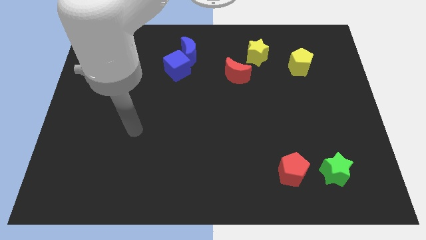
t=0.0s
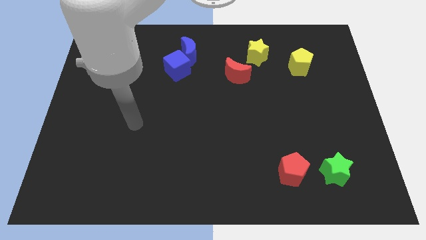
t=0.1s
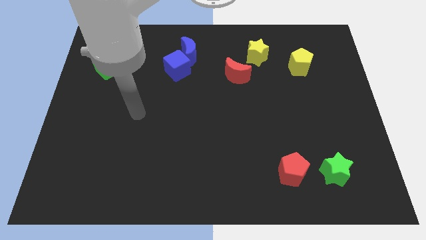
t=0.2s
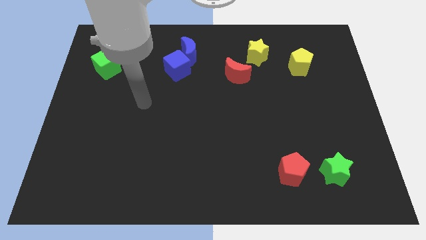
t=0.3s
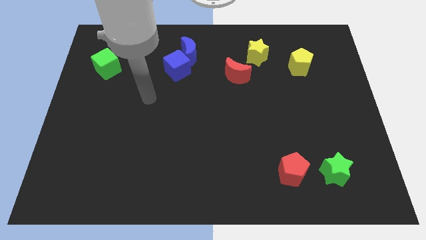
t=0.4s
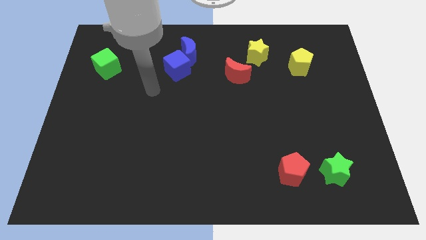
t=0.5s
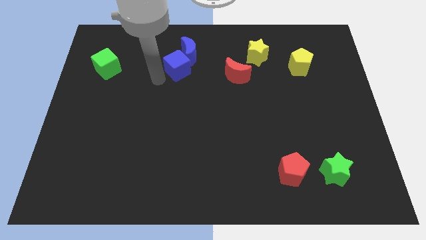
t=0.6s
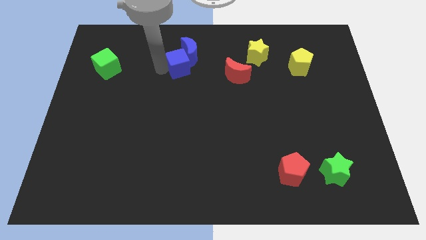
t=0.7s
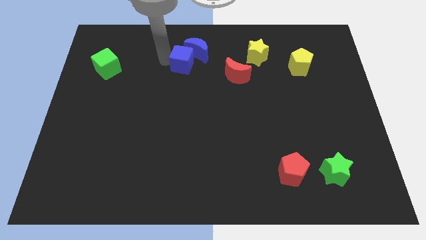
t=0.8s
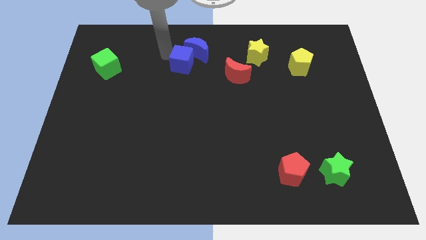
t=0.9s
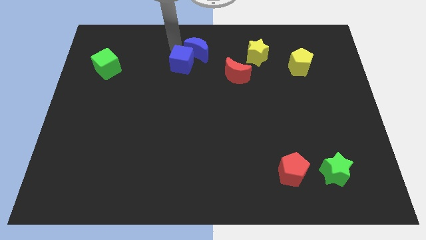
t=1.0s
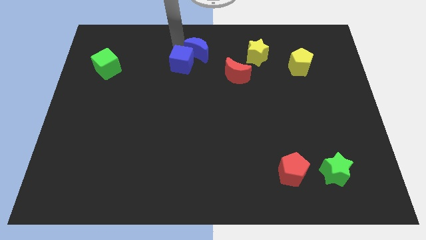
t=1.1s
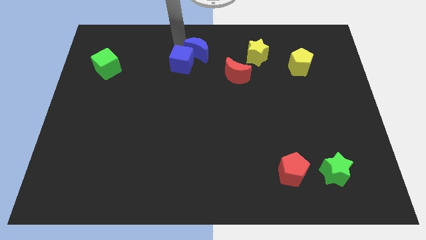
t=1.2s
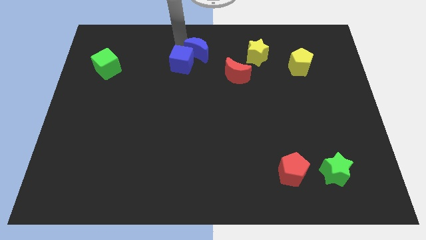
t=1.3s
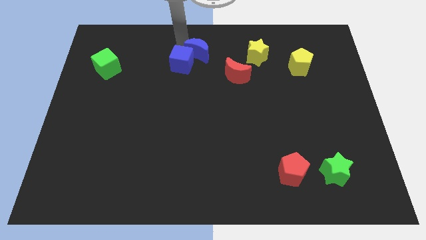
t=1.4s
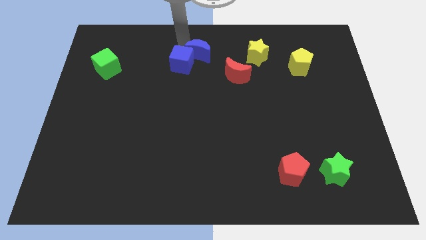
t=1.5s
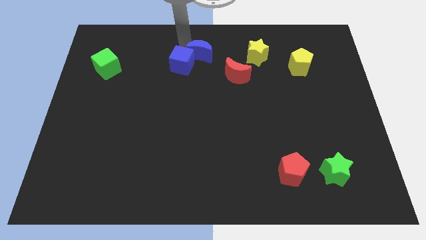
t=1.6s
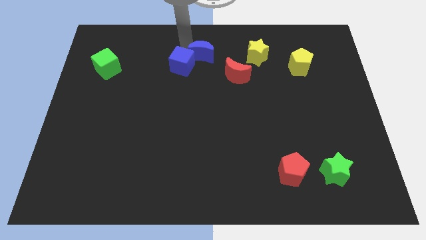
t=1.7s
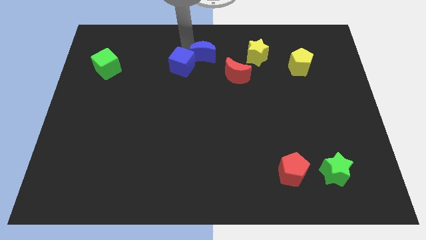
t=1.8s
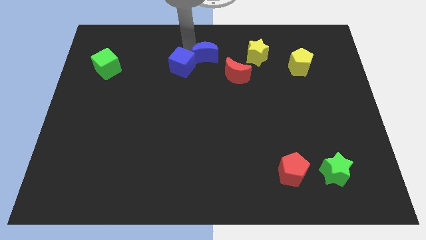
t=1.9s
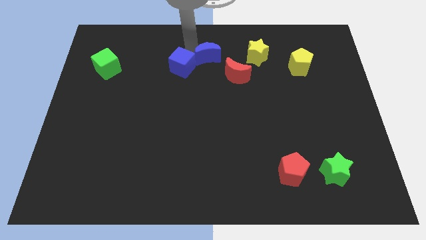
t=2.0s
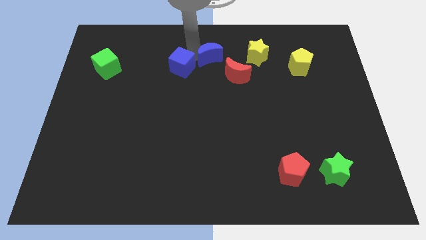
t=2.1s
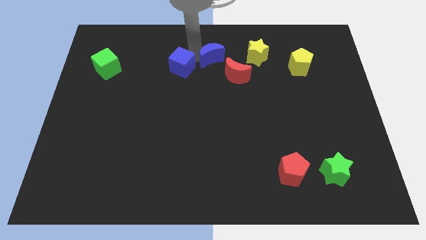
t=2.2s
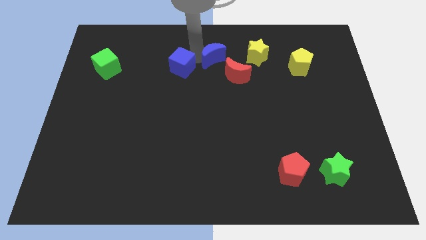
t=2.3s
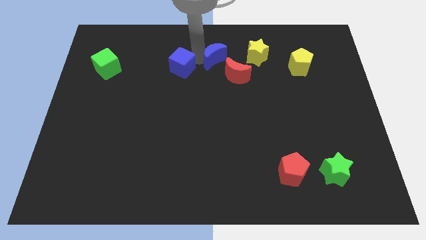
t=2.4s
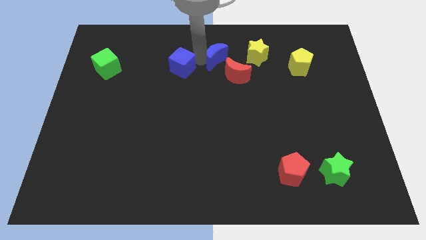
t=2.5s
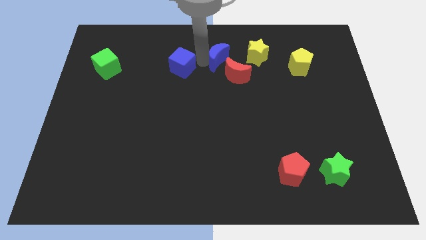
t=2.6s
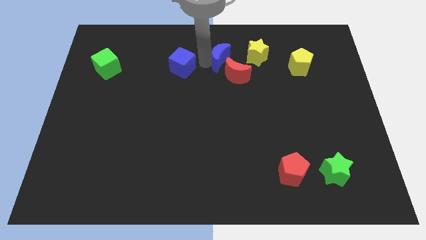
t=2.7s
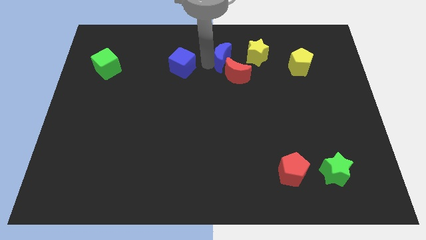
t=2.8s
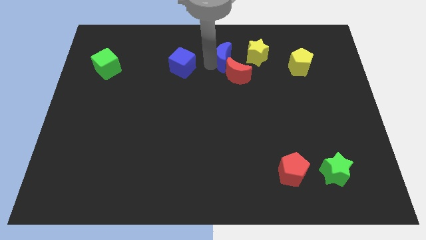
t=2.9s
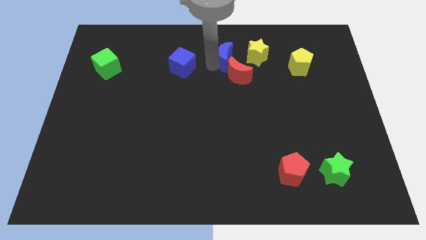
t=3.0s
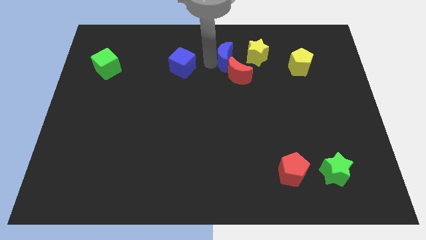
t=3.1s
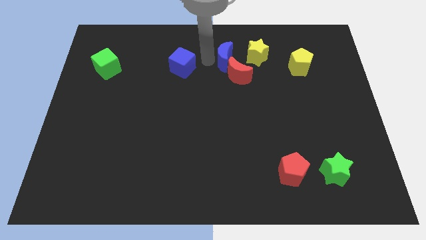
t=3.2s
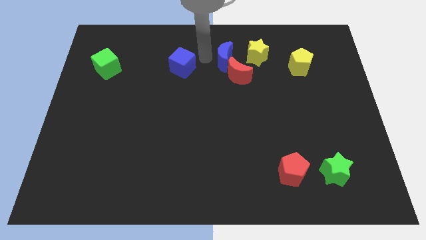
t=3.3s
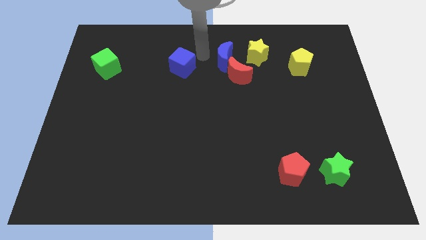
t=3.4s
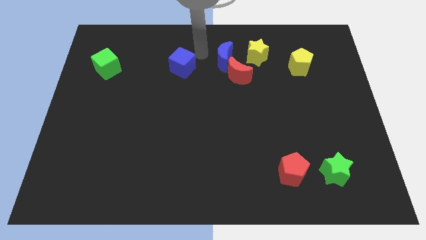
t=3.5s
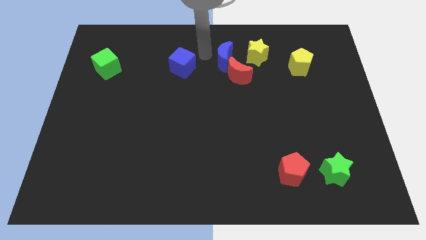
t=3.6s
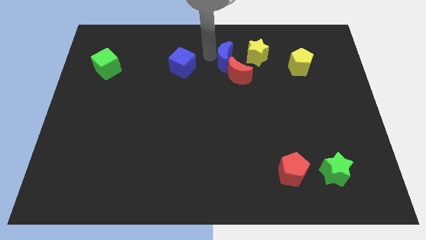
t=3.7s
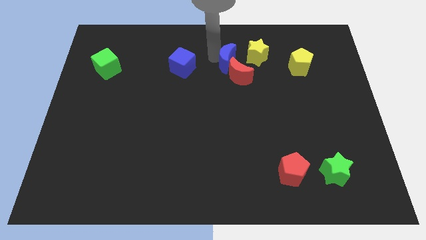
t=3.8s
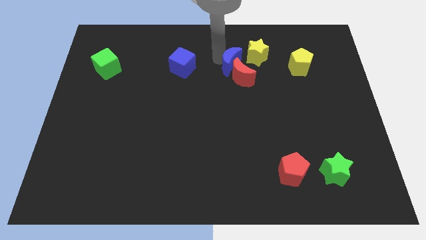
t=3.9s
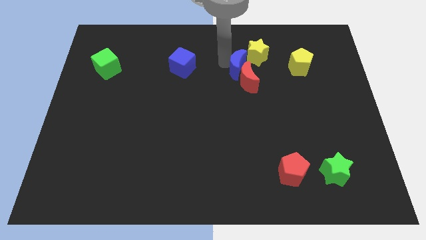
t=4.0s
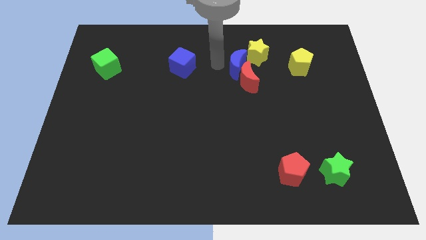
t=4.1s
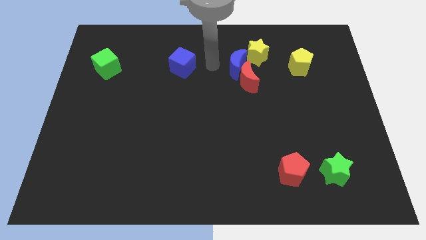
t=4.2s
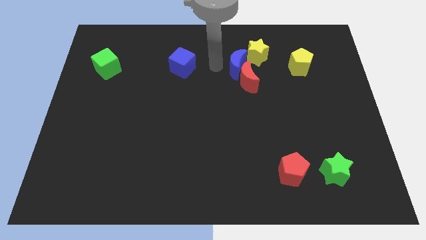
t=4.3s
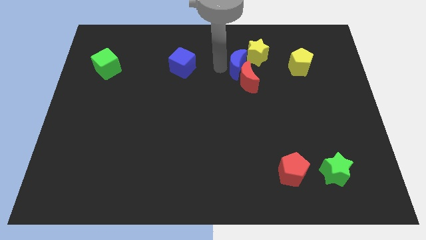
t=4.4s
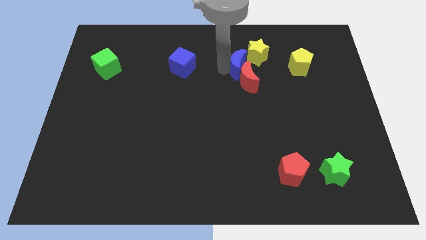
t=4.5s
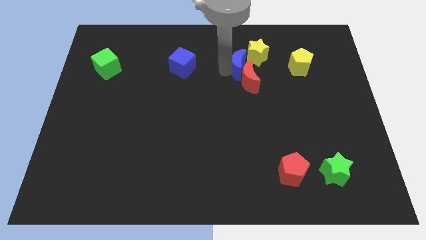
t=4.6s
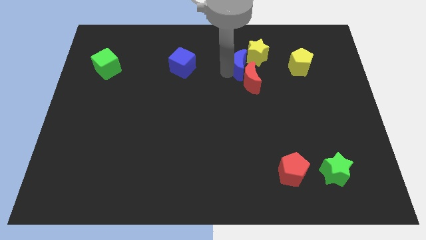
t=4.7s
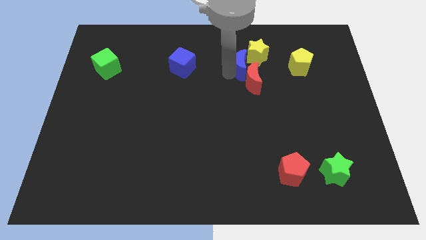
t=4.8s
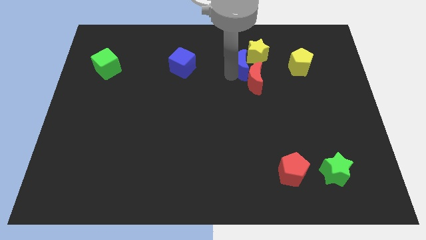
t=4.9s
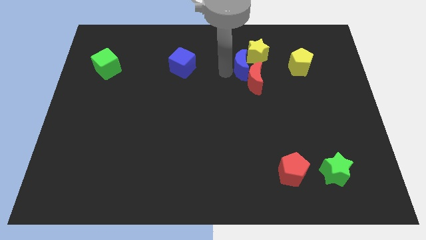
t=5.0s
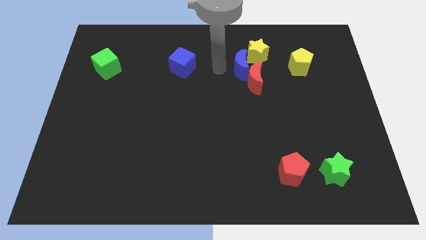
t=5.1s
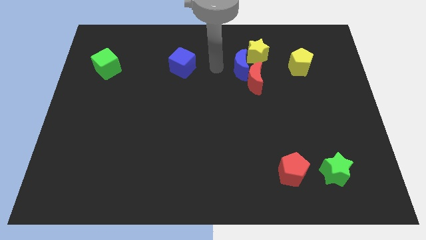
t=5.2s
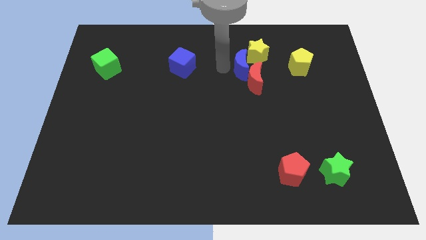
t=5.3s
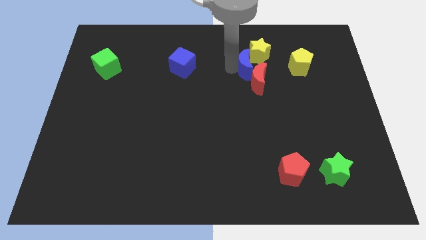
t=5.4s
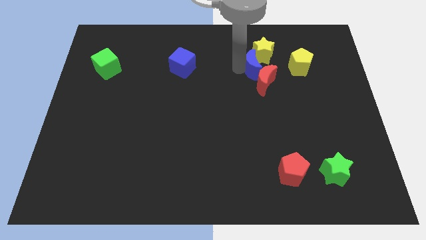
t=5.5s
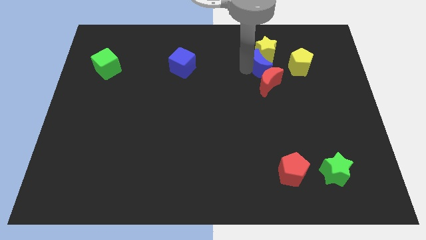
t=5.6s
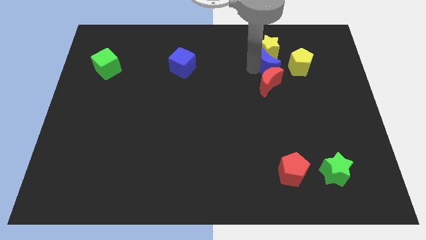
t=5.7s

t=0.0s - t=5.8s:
slide the blue moon to the bottom right of the yellow star

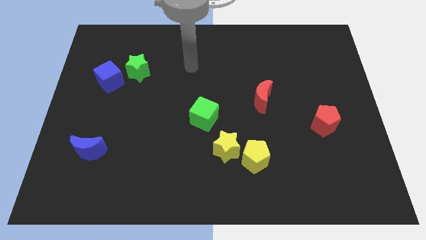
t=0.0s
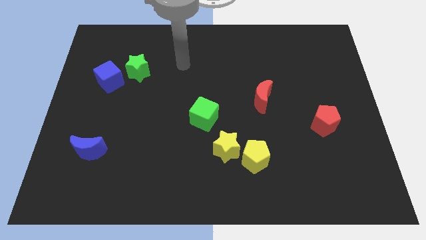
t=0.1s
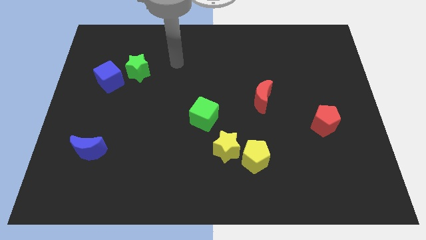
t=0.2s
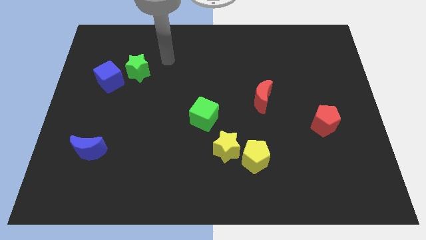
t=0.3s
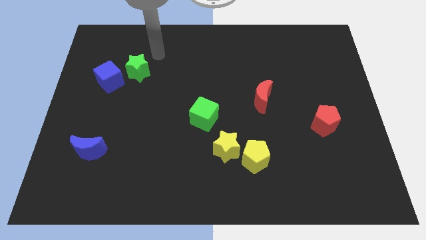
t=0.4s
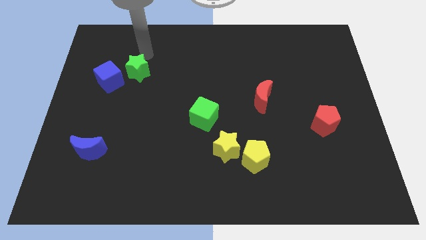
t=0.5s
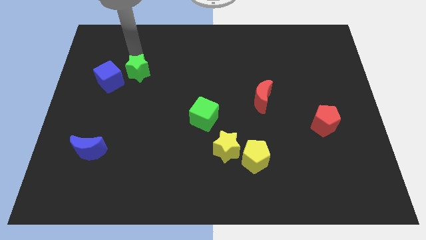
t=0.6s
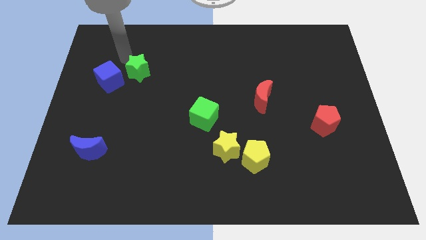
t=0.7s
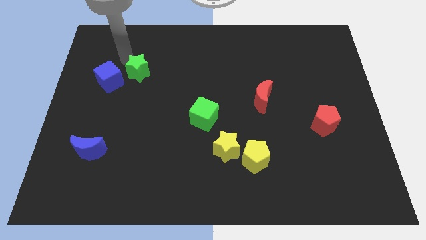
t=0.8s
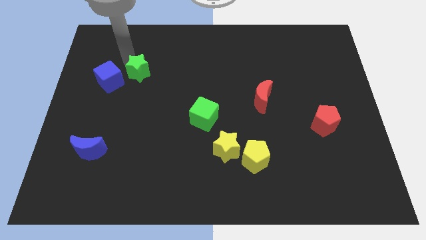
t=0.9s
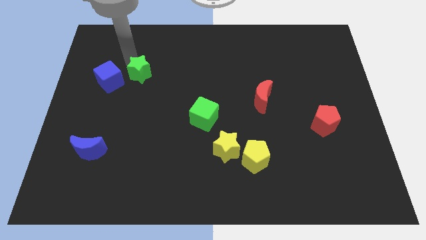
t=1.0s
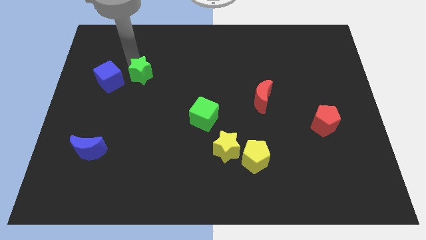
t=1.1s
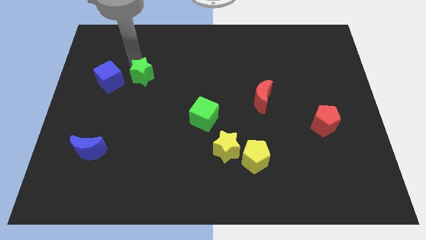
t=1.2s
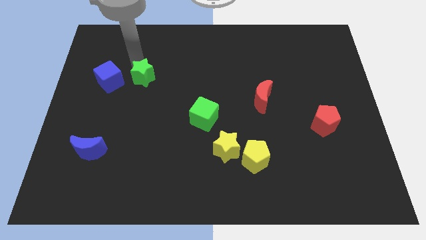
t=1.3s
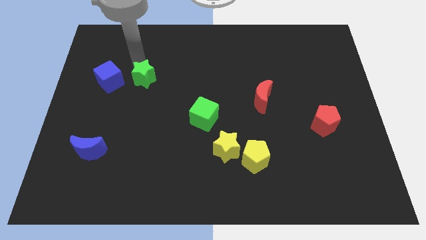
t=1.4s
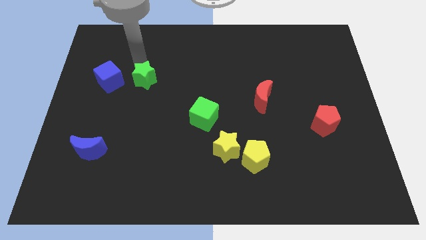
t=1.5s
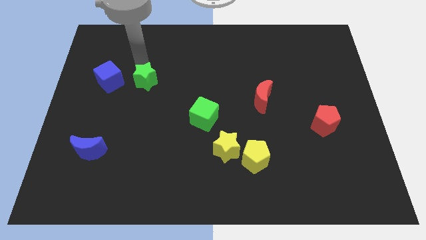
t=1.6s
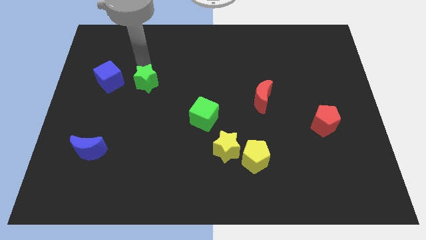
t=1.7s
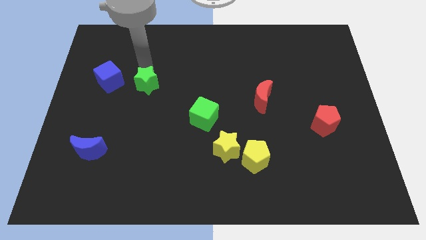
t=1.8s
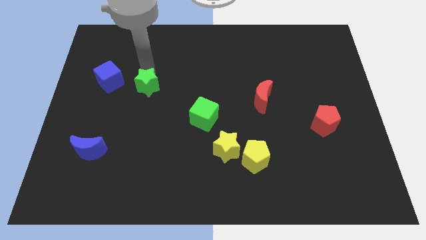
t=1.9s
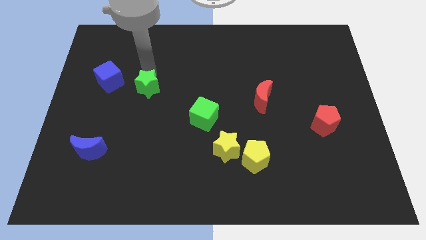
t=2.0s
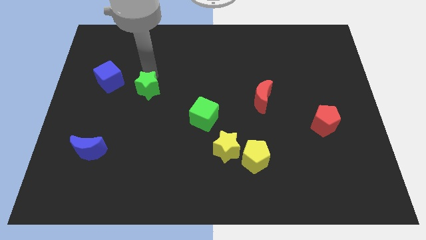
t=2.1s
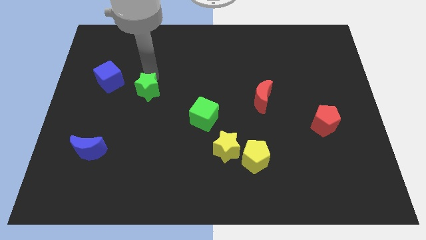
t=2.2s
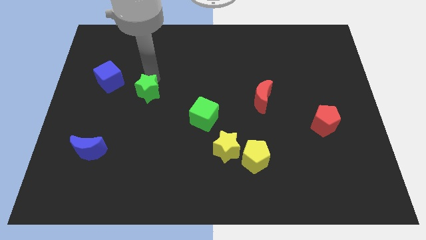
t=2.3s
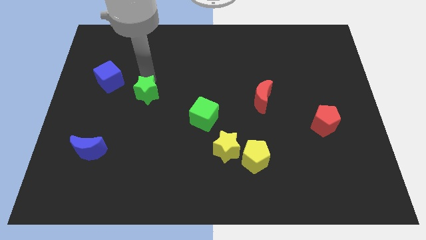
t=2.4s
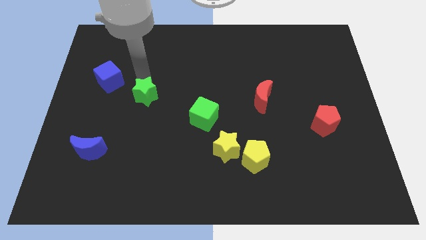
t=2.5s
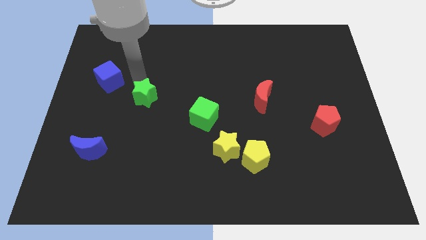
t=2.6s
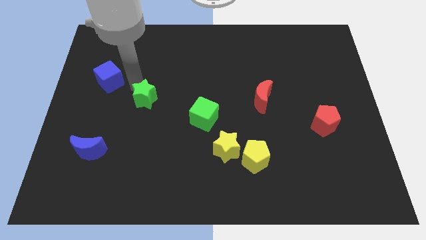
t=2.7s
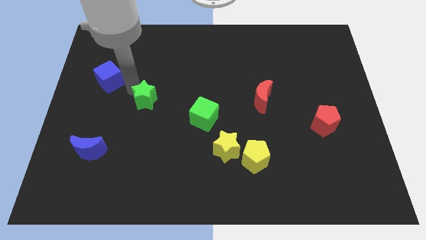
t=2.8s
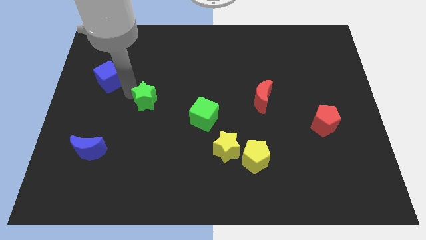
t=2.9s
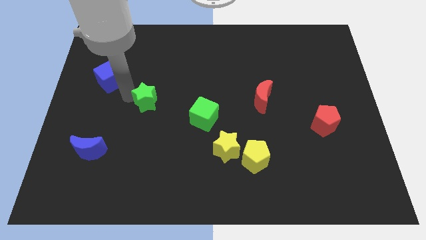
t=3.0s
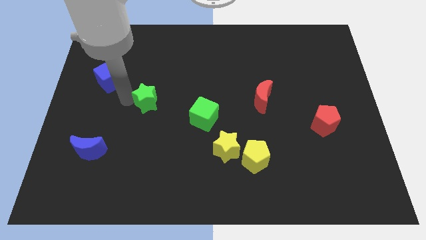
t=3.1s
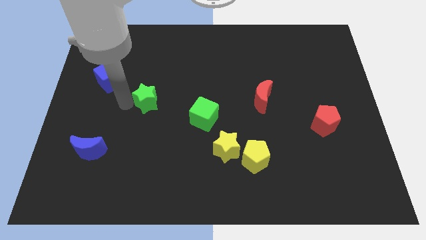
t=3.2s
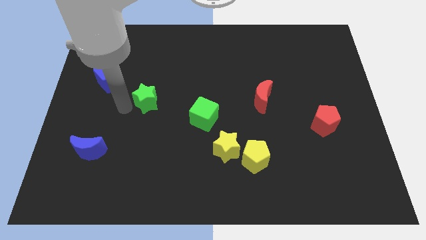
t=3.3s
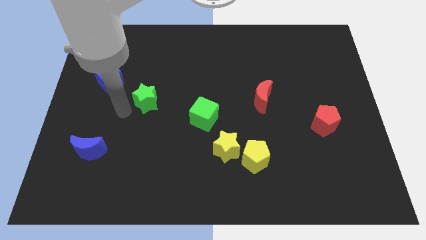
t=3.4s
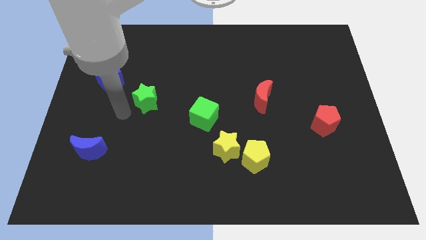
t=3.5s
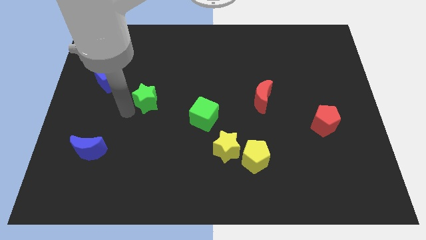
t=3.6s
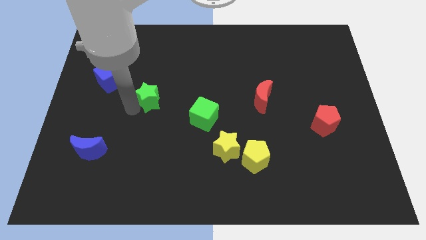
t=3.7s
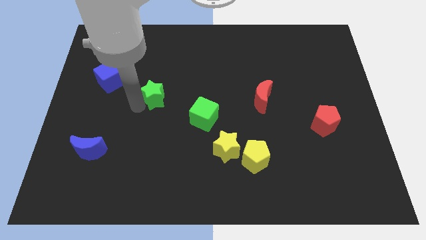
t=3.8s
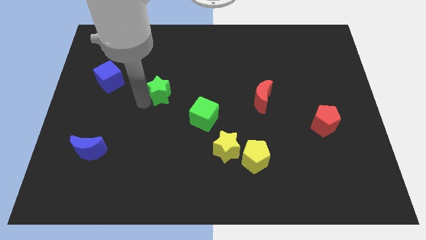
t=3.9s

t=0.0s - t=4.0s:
put the green star to the top left side of the green cube
